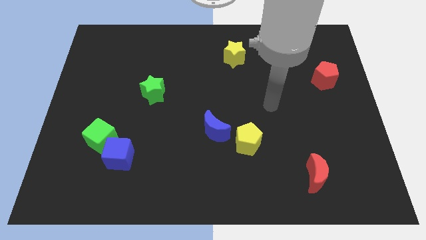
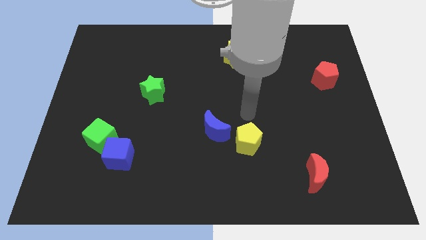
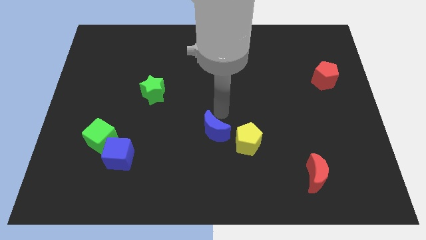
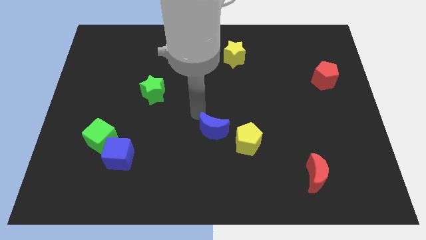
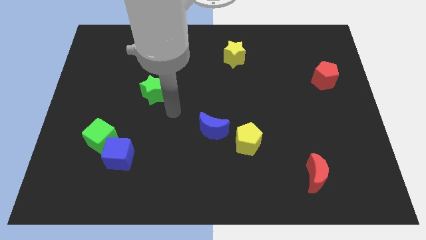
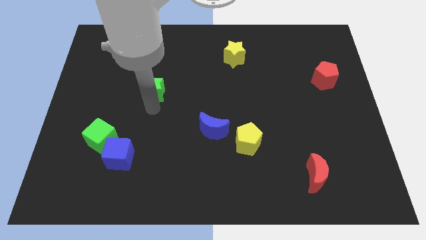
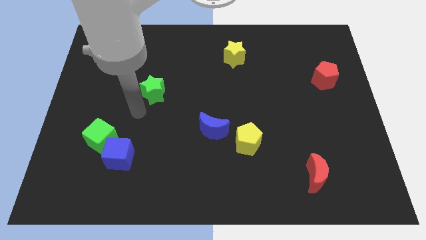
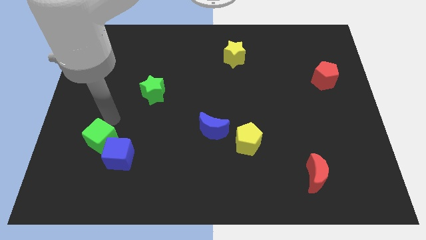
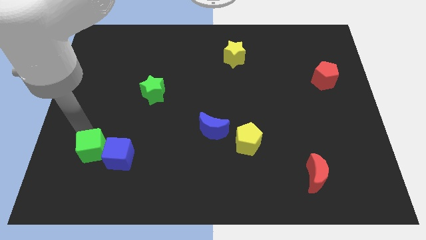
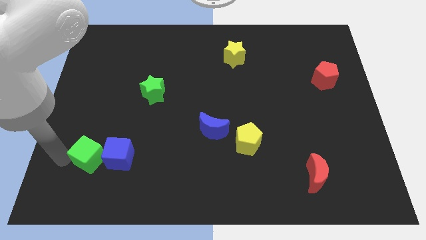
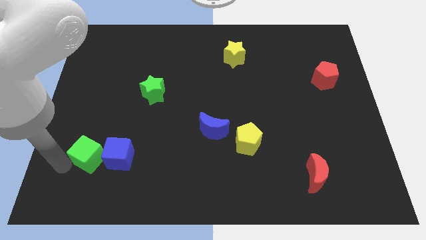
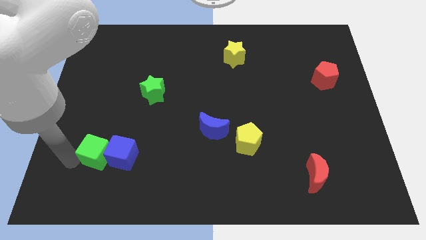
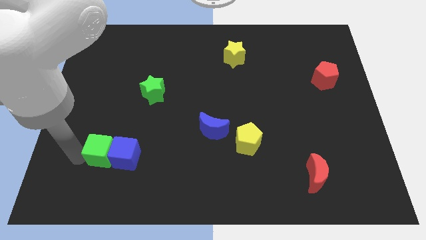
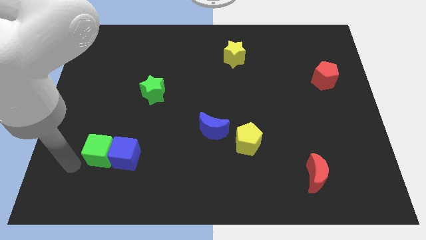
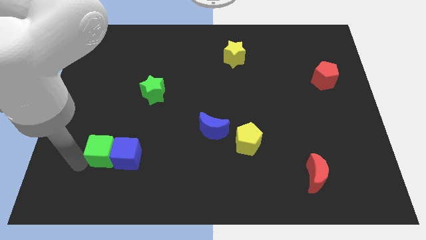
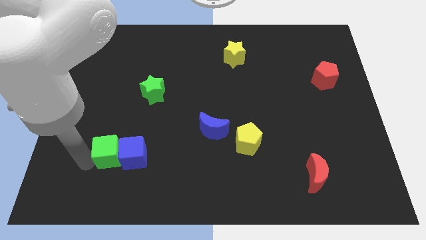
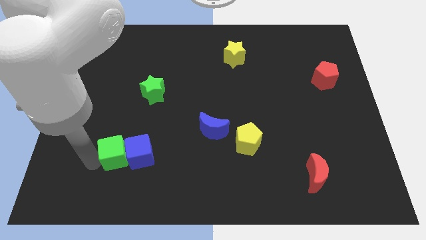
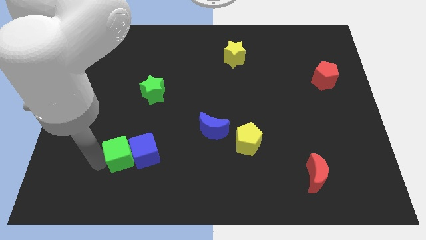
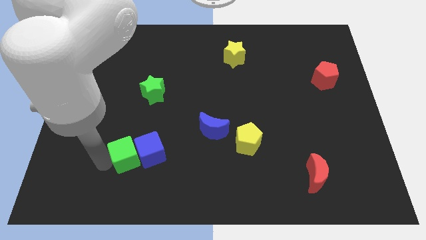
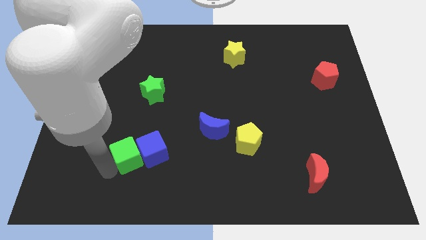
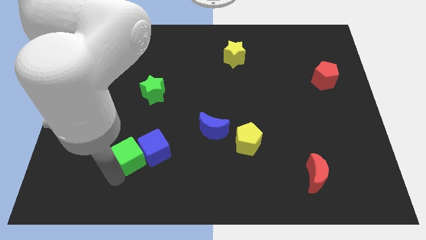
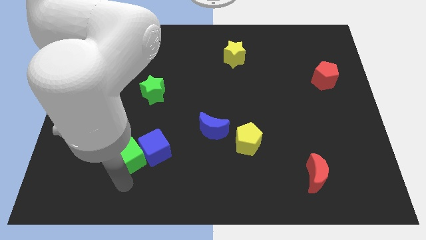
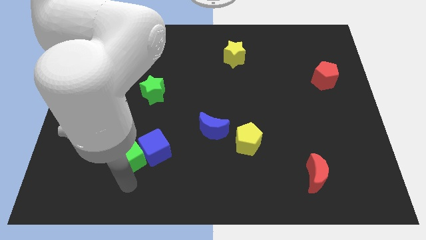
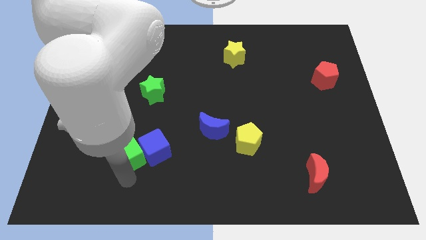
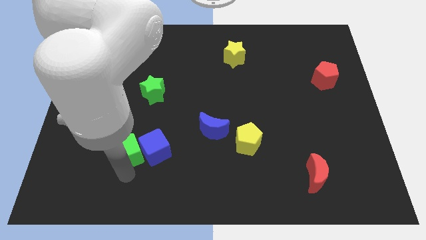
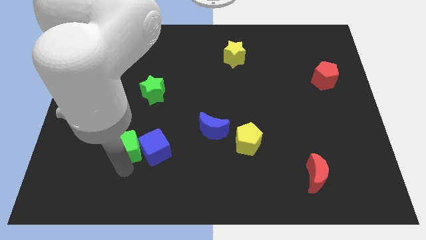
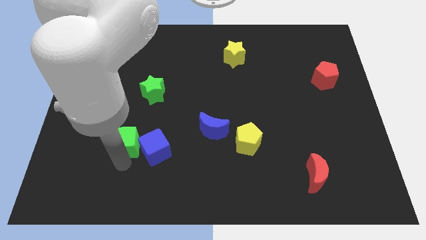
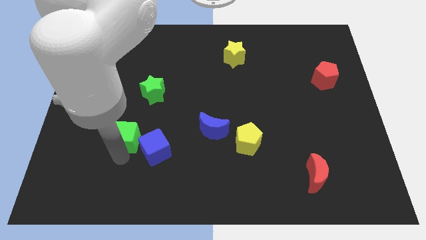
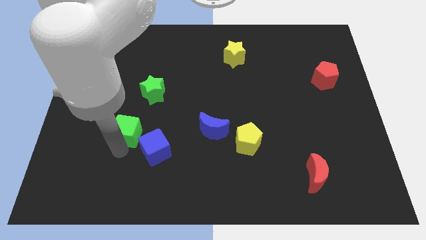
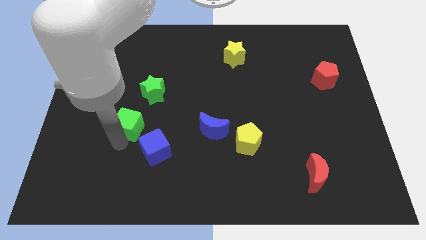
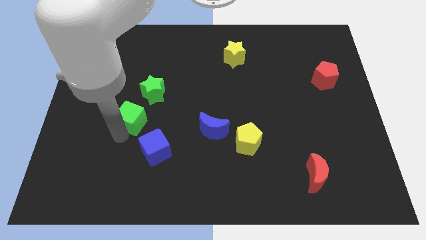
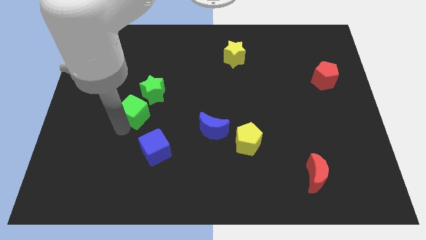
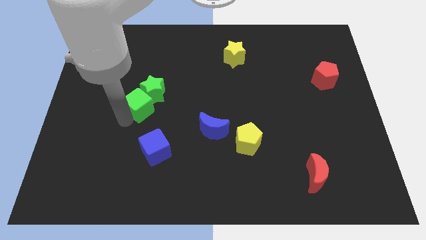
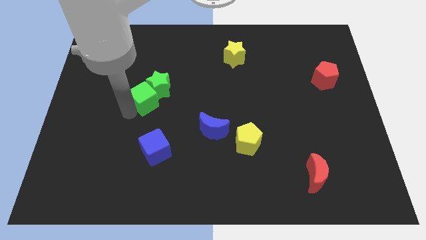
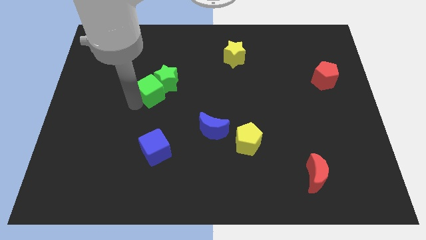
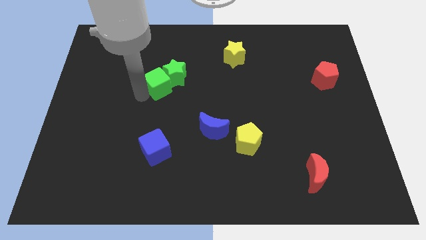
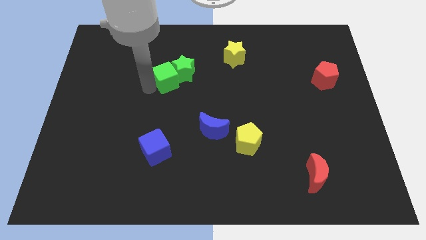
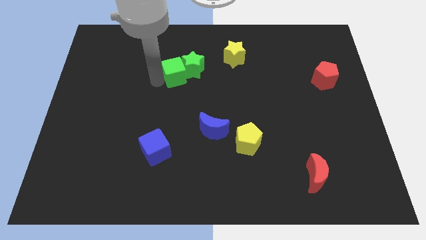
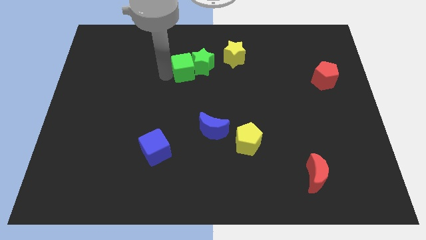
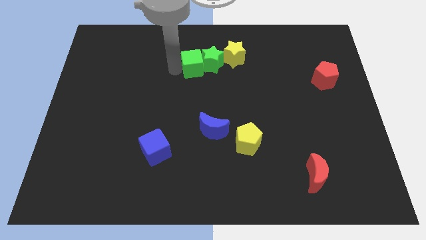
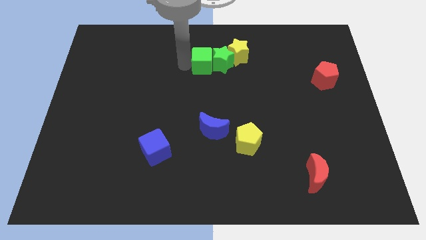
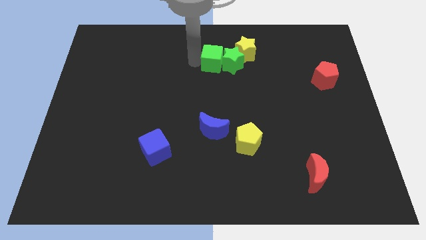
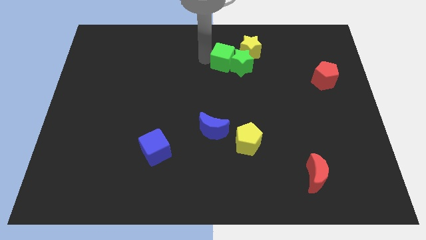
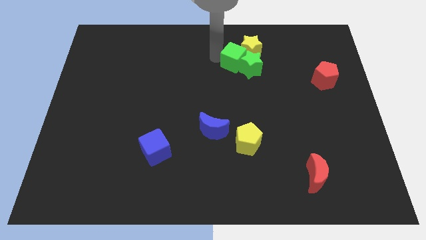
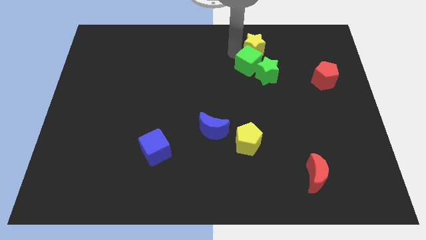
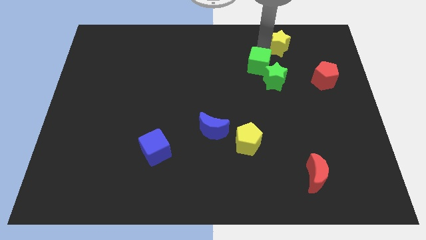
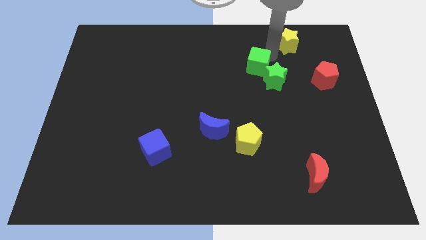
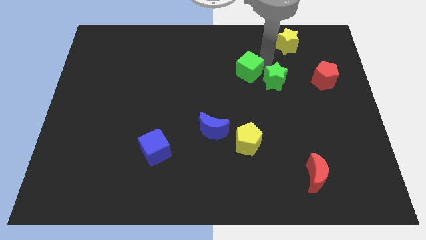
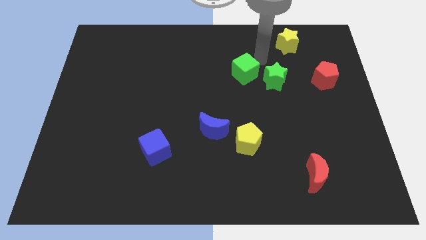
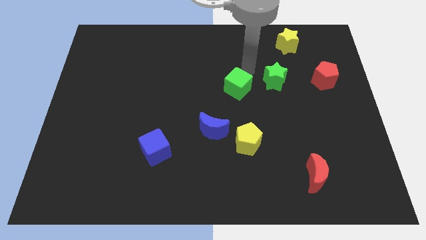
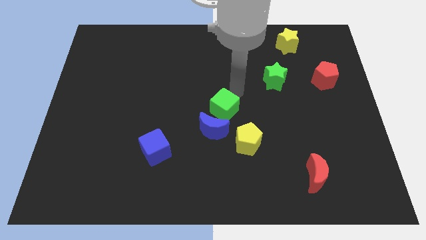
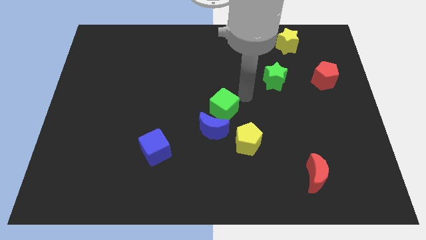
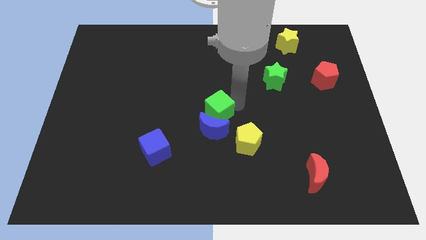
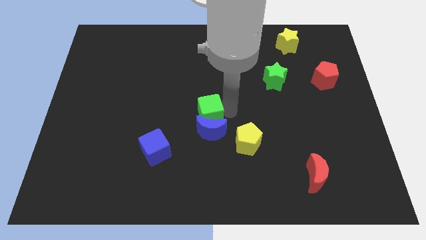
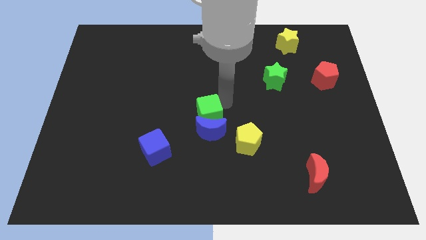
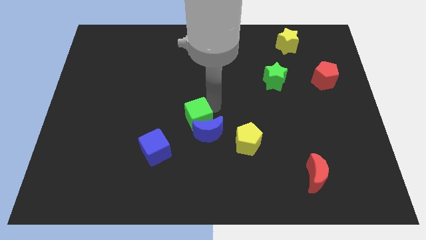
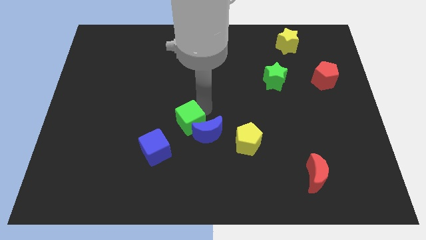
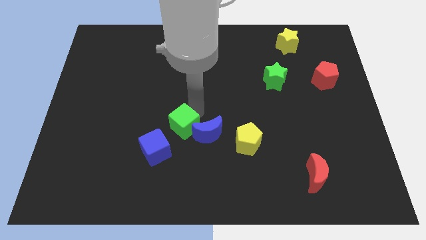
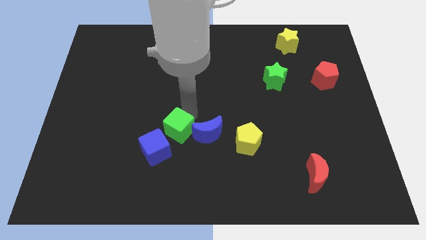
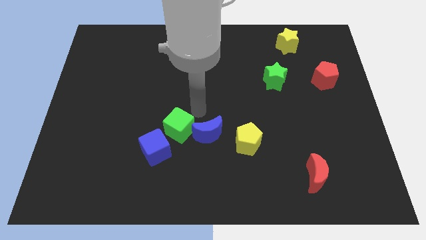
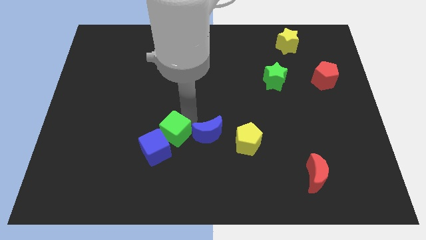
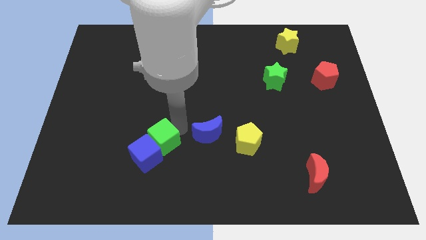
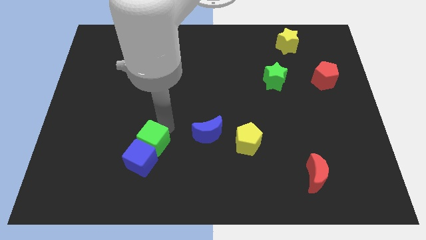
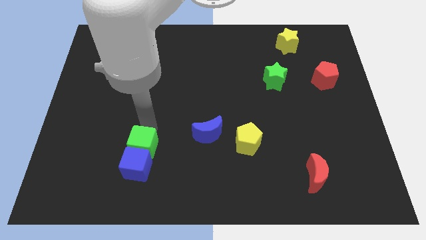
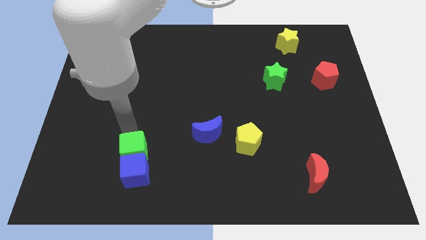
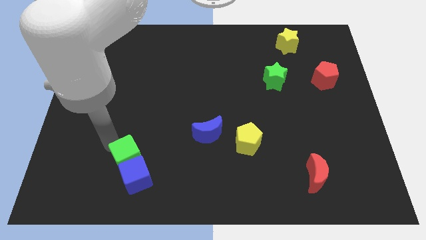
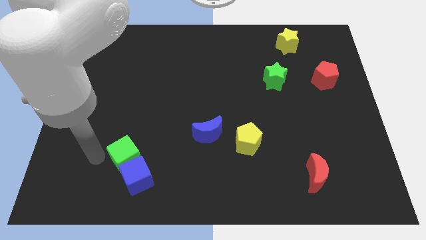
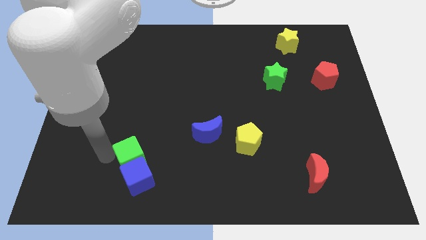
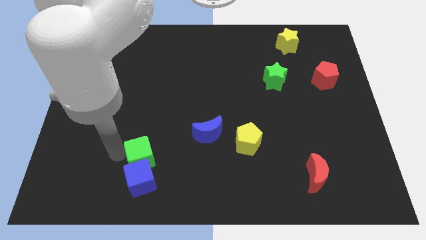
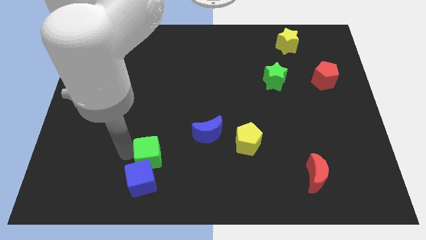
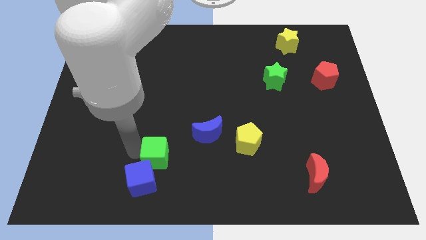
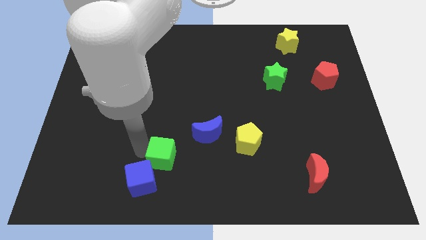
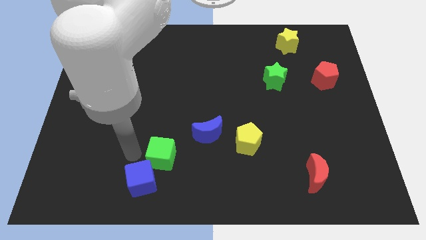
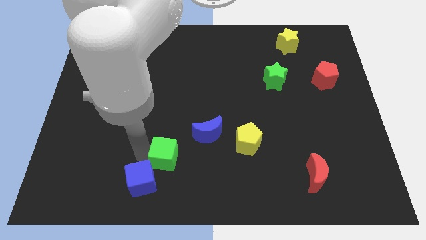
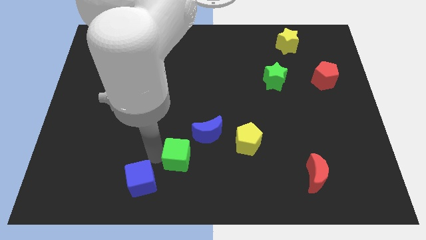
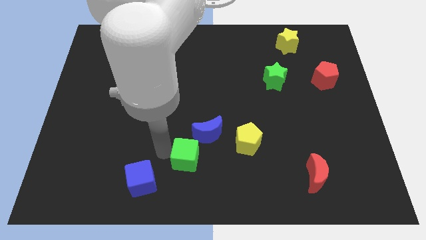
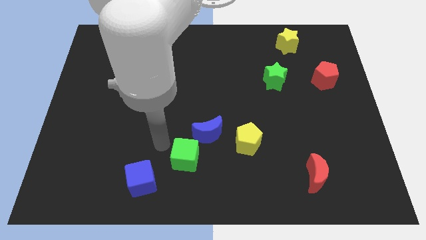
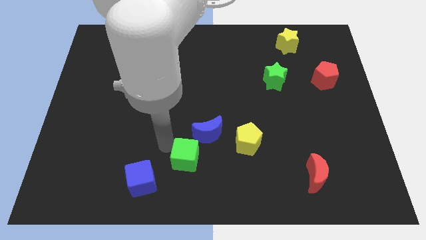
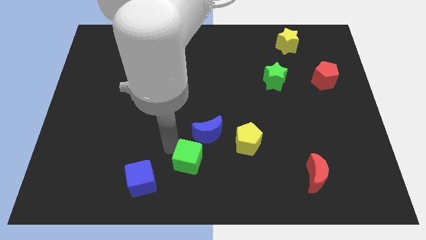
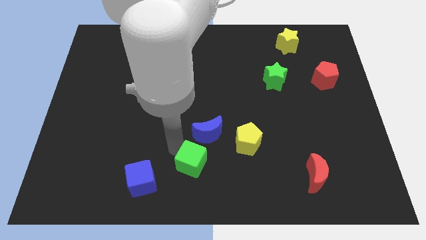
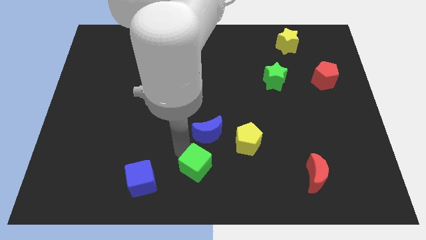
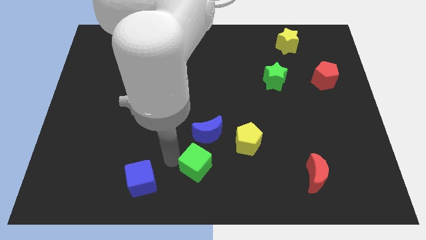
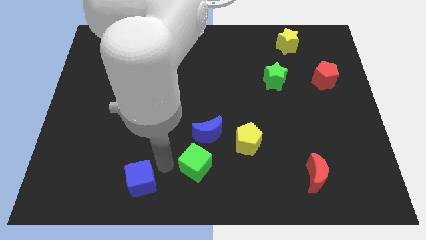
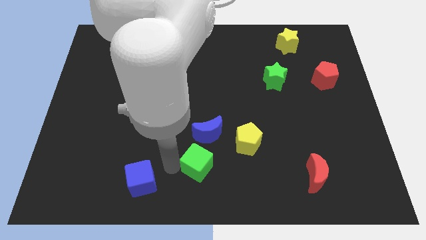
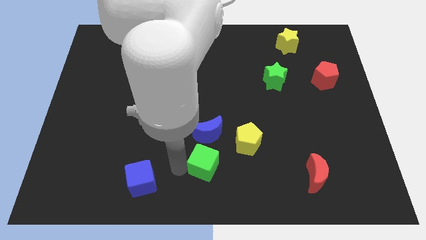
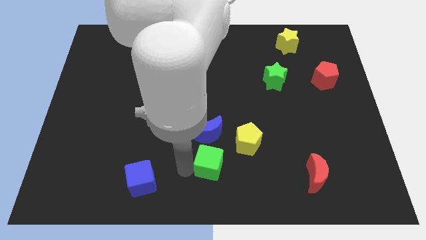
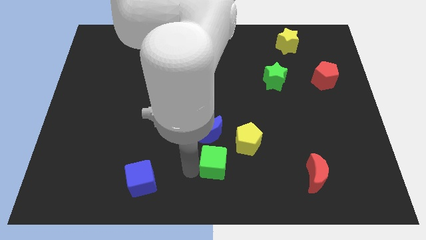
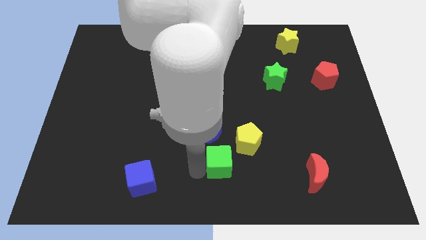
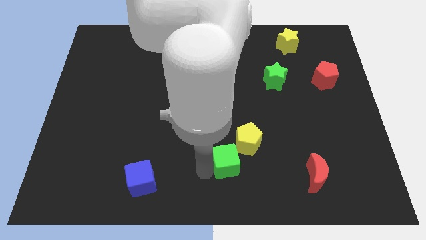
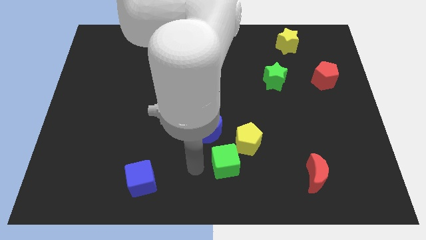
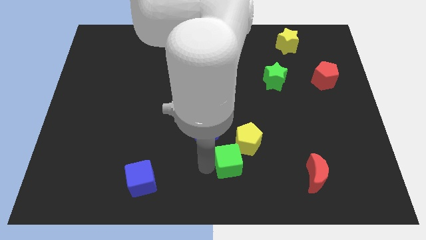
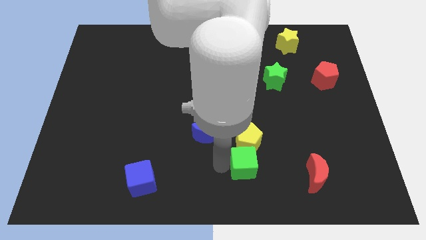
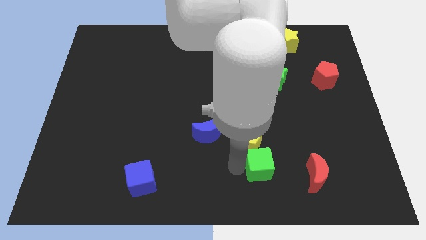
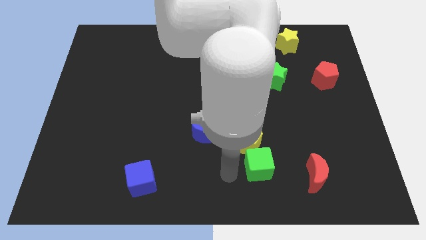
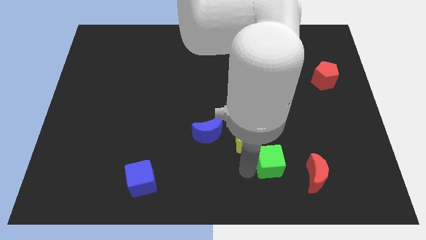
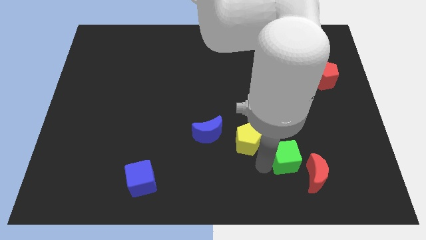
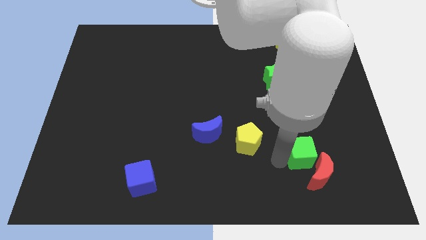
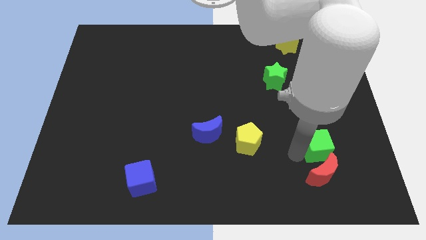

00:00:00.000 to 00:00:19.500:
put the green cube to the top right of the red moon
